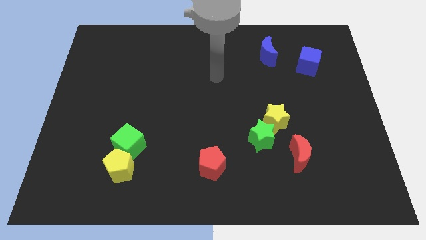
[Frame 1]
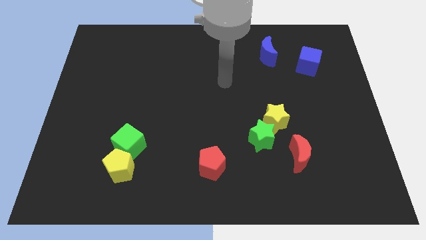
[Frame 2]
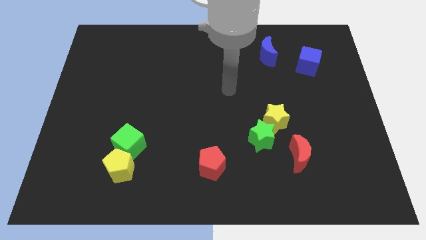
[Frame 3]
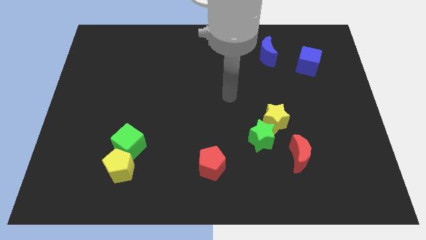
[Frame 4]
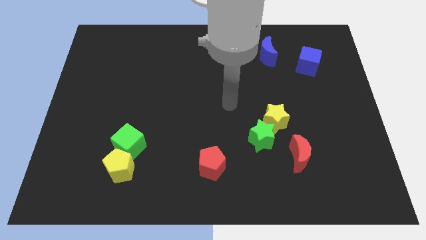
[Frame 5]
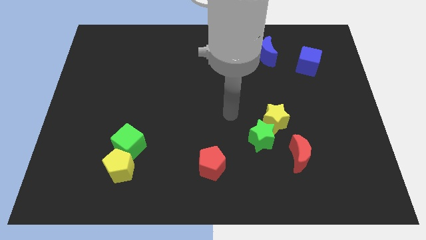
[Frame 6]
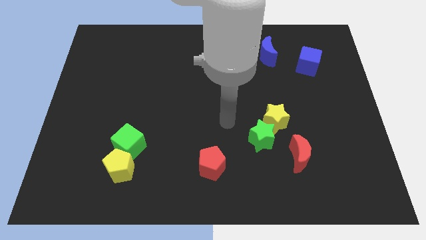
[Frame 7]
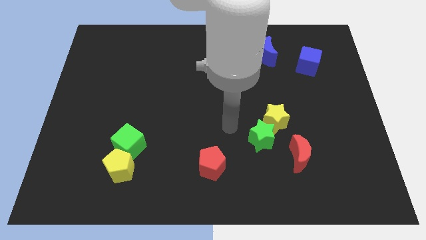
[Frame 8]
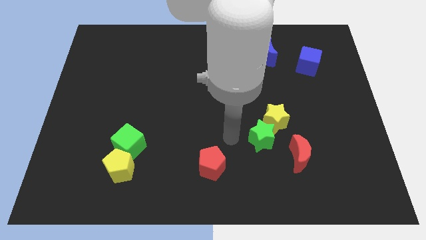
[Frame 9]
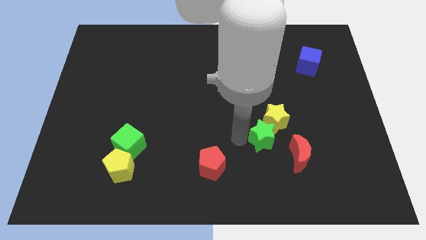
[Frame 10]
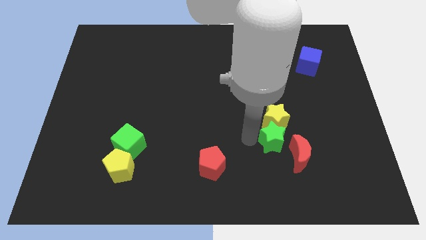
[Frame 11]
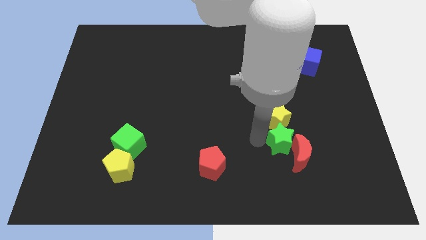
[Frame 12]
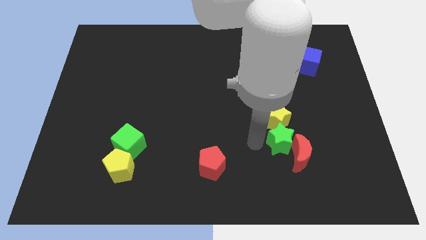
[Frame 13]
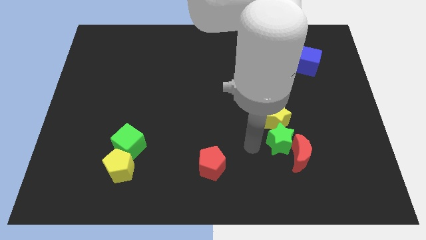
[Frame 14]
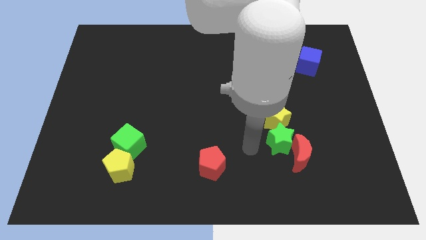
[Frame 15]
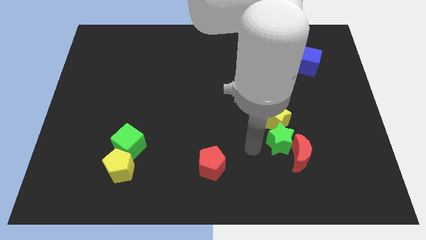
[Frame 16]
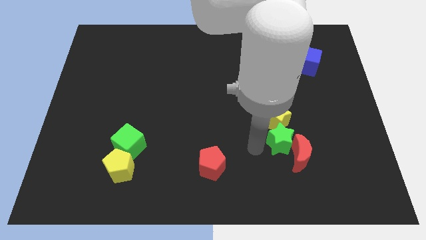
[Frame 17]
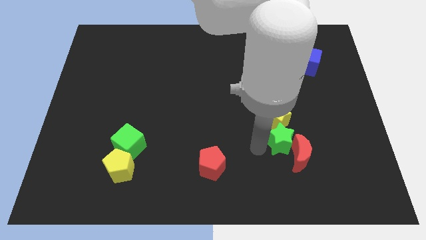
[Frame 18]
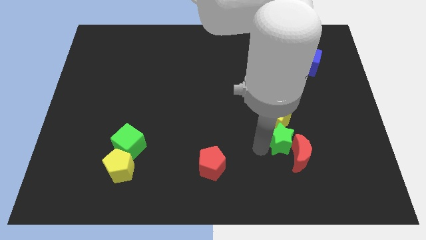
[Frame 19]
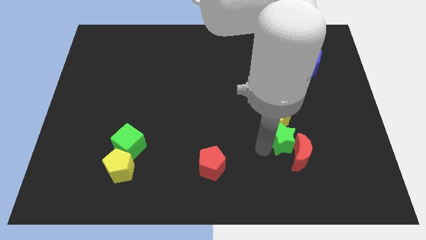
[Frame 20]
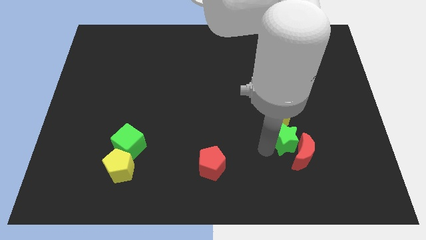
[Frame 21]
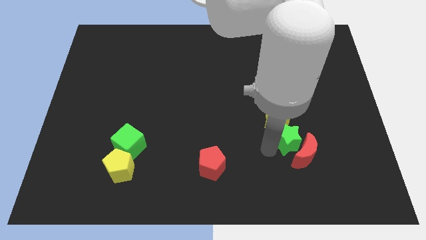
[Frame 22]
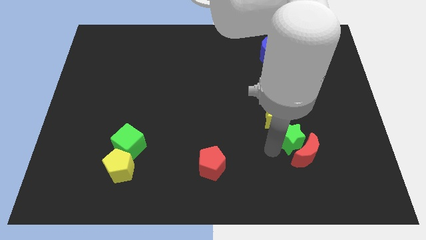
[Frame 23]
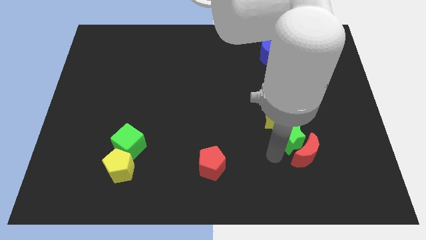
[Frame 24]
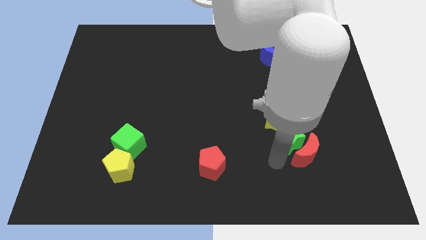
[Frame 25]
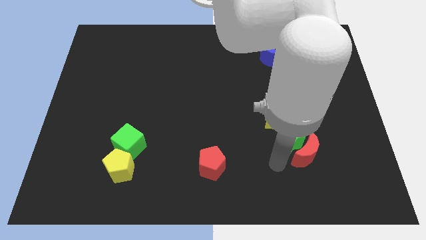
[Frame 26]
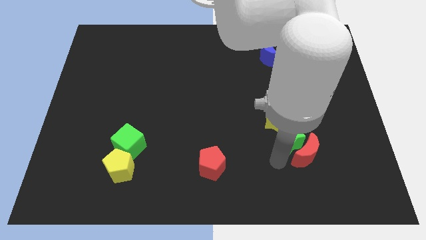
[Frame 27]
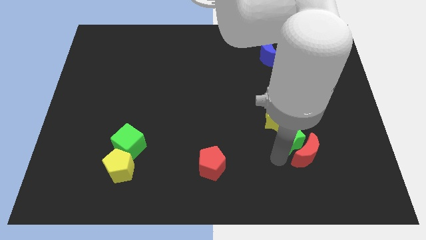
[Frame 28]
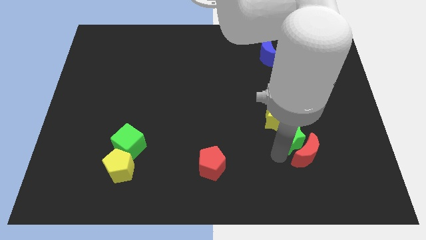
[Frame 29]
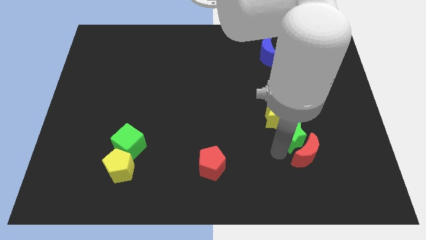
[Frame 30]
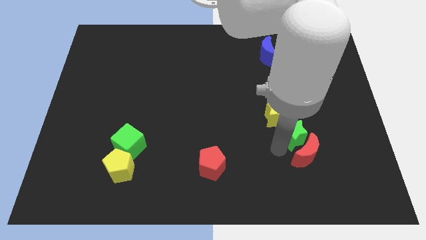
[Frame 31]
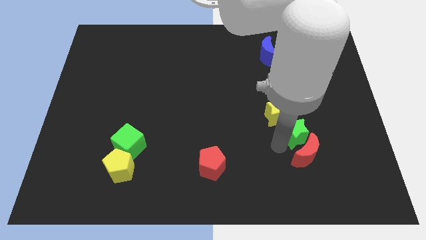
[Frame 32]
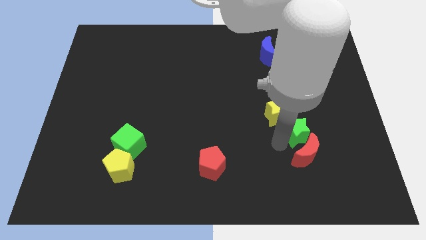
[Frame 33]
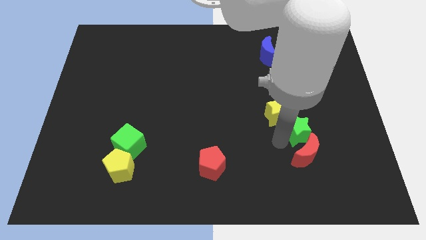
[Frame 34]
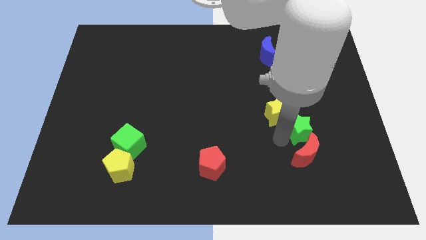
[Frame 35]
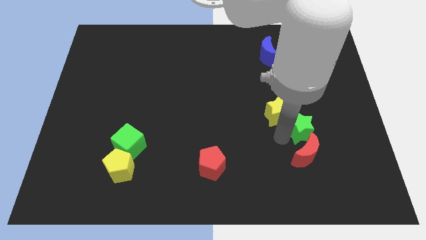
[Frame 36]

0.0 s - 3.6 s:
slightly slide the green star up and right

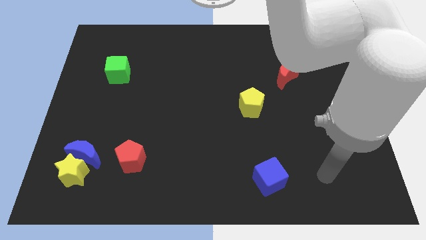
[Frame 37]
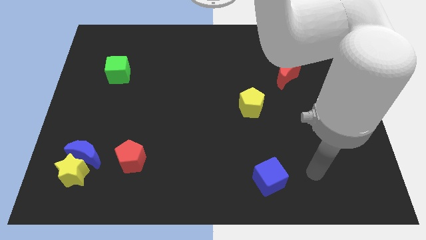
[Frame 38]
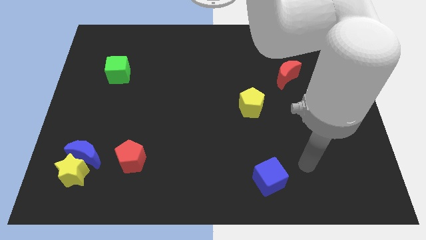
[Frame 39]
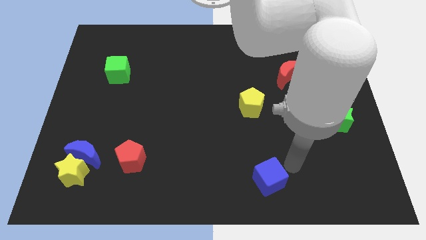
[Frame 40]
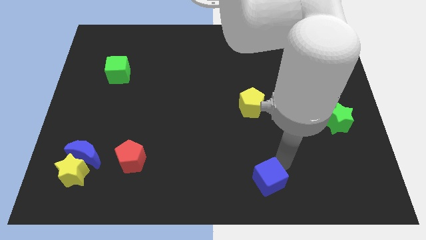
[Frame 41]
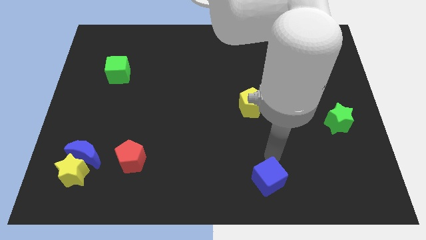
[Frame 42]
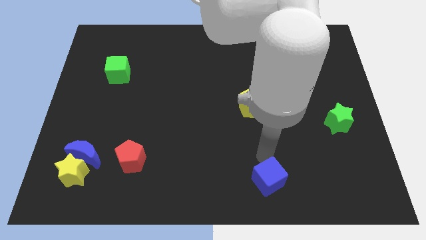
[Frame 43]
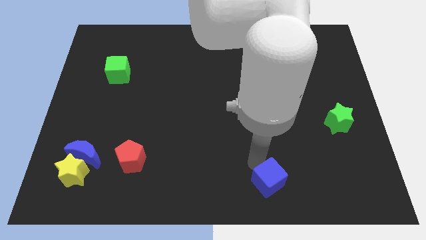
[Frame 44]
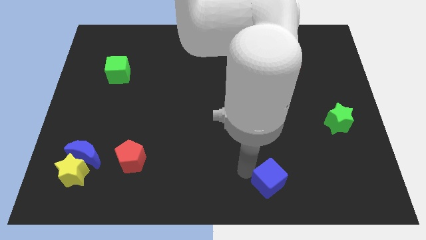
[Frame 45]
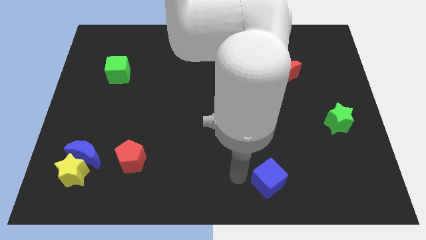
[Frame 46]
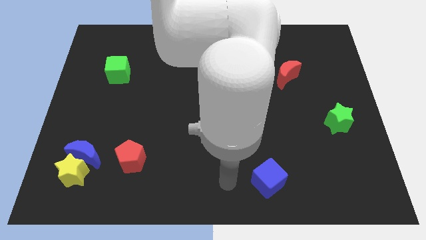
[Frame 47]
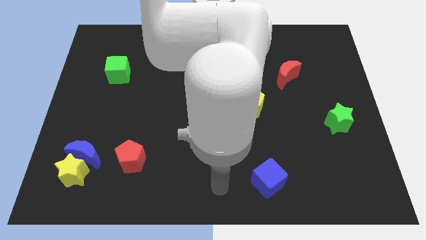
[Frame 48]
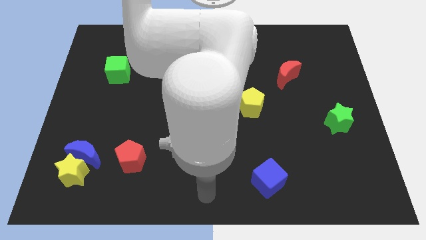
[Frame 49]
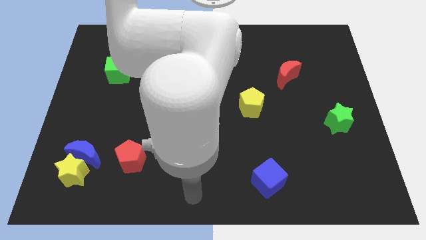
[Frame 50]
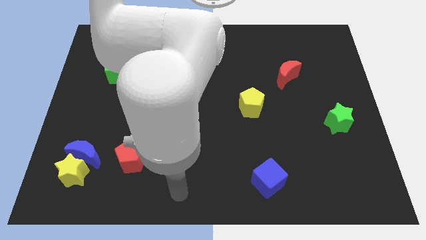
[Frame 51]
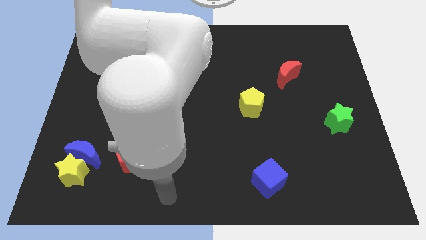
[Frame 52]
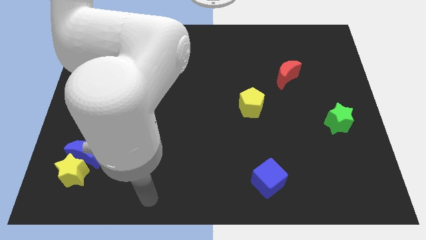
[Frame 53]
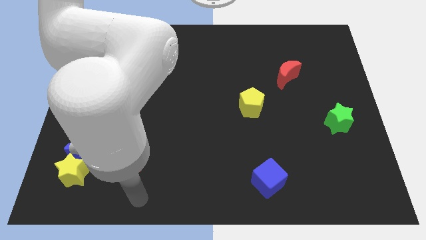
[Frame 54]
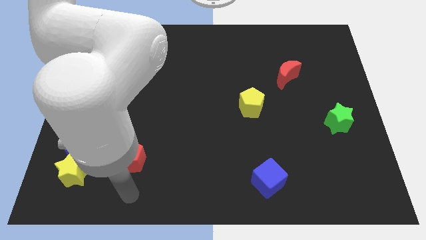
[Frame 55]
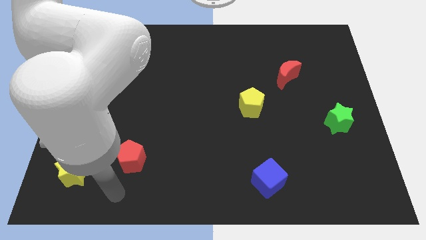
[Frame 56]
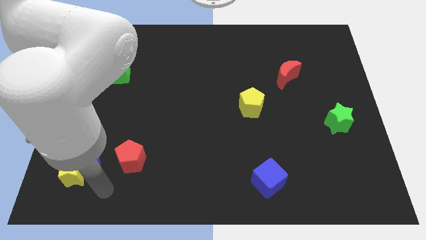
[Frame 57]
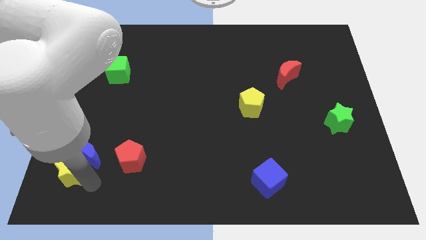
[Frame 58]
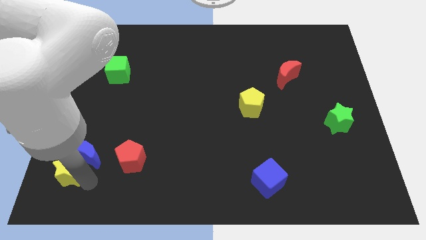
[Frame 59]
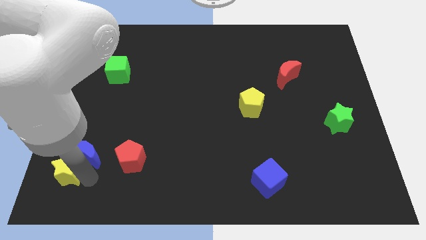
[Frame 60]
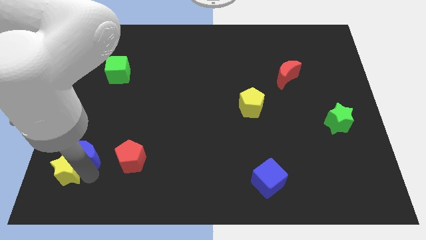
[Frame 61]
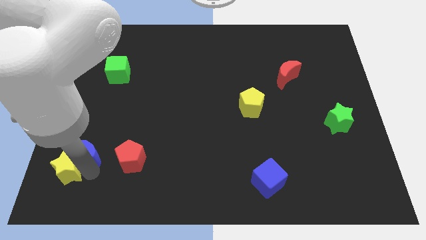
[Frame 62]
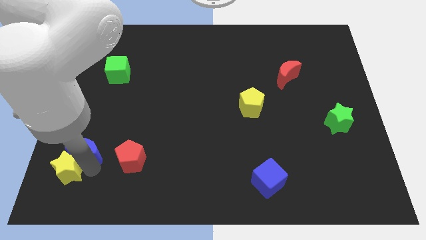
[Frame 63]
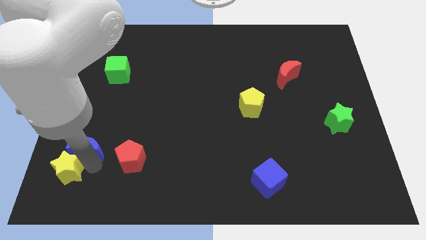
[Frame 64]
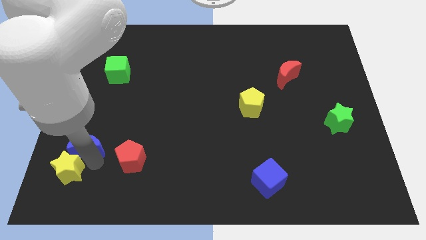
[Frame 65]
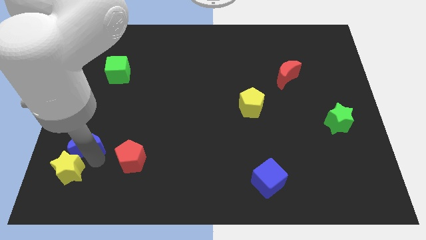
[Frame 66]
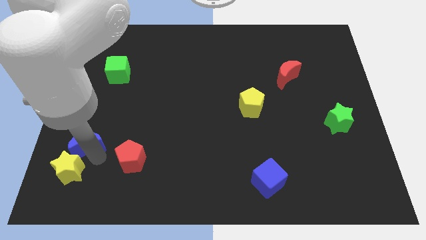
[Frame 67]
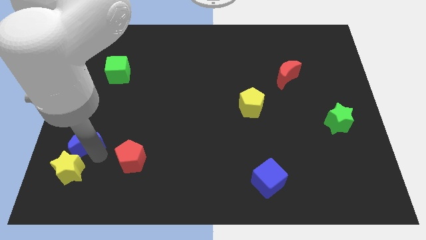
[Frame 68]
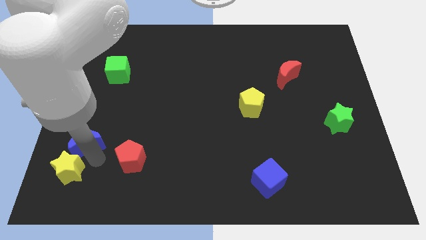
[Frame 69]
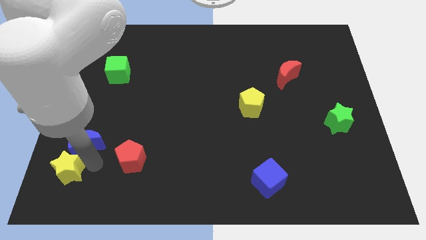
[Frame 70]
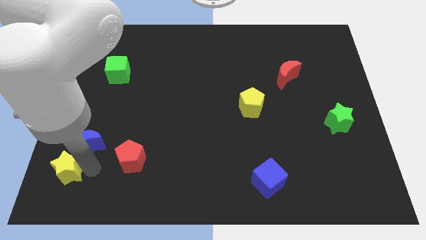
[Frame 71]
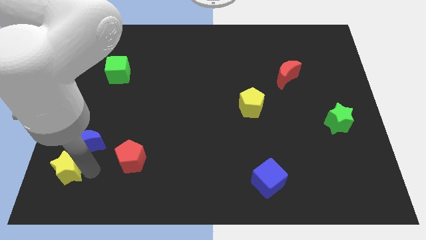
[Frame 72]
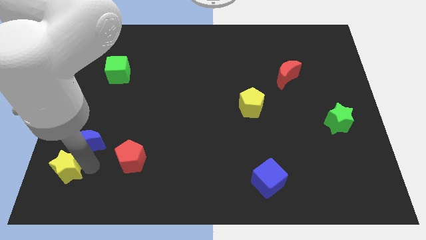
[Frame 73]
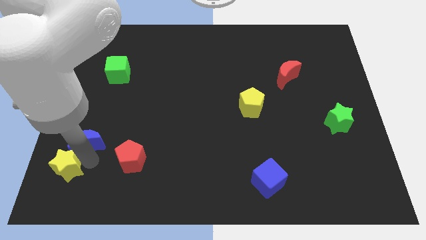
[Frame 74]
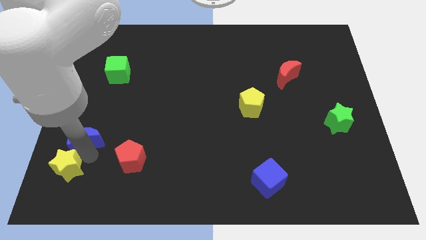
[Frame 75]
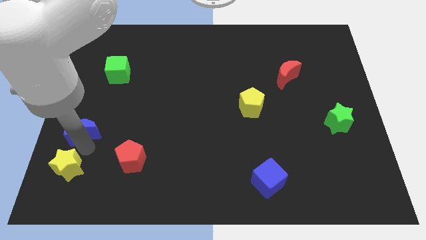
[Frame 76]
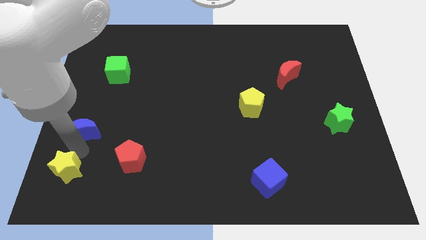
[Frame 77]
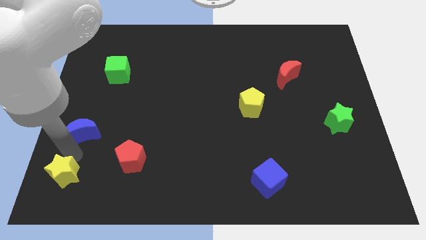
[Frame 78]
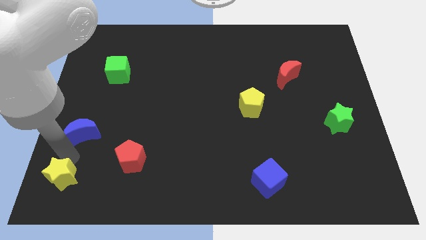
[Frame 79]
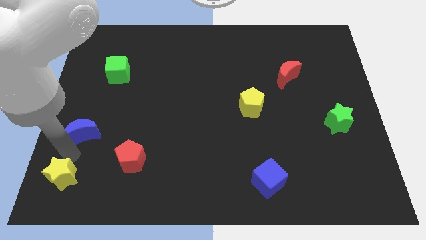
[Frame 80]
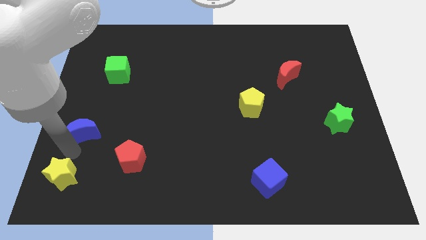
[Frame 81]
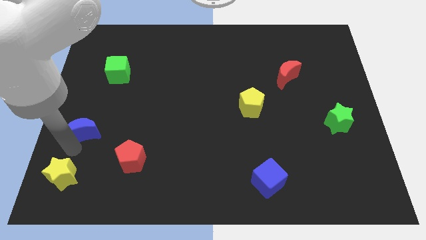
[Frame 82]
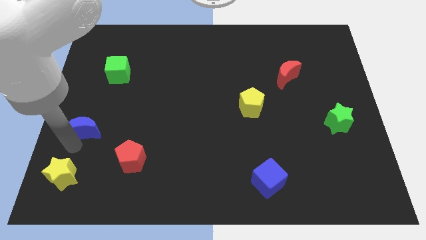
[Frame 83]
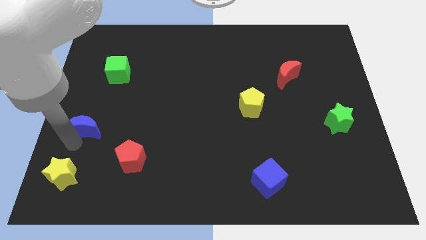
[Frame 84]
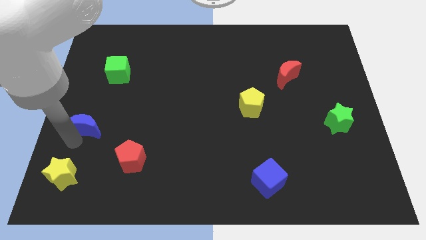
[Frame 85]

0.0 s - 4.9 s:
slide the blue moon upwards somewhat

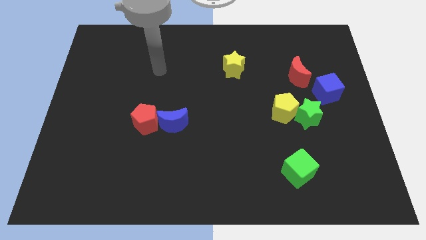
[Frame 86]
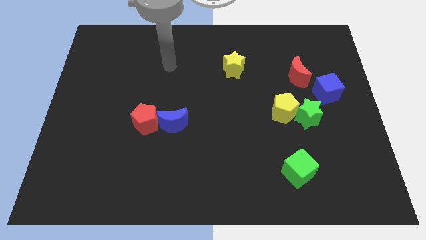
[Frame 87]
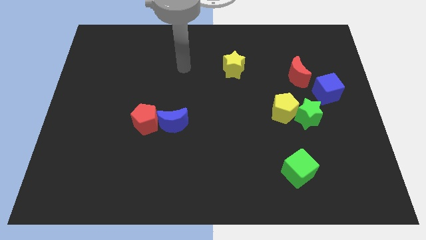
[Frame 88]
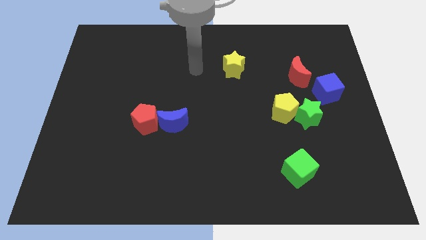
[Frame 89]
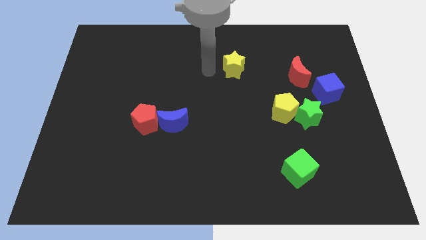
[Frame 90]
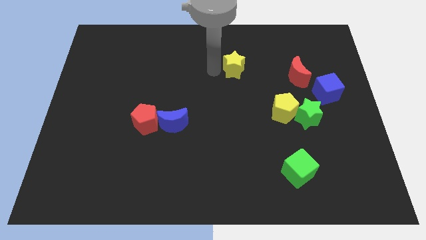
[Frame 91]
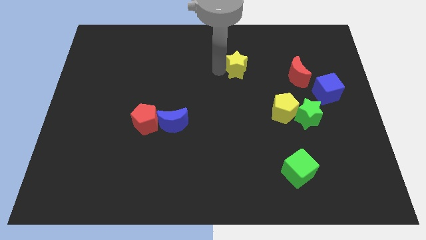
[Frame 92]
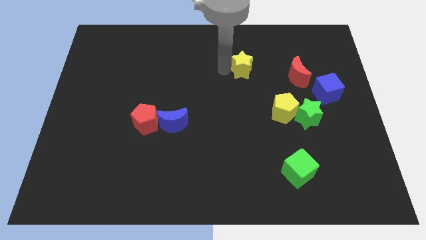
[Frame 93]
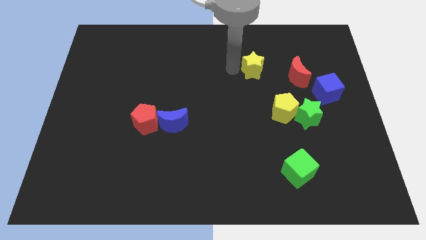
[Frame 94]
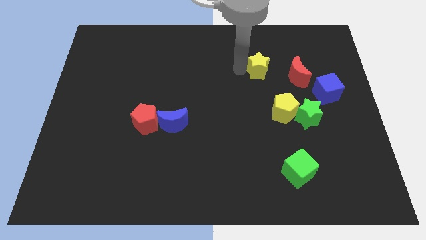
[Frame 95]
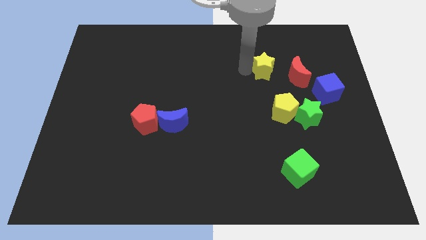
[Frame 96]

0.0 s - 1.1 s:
slide the yellow star to the right slightly
